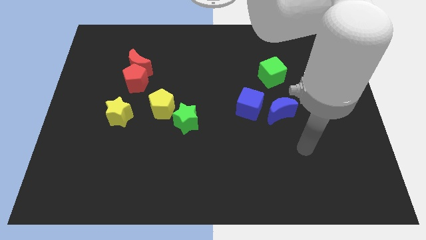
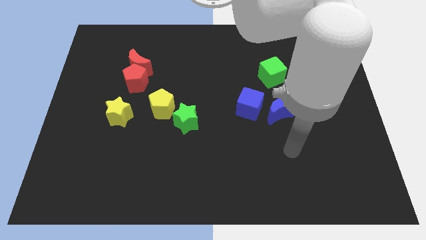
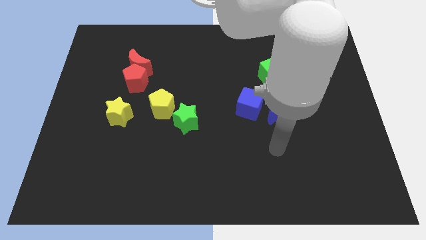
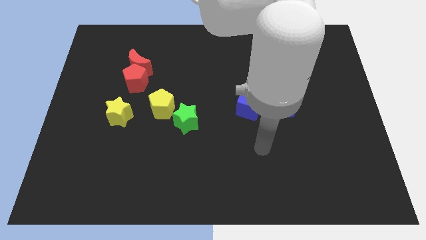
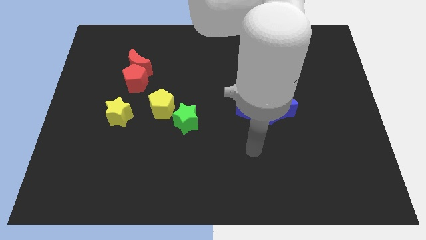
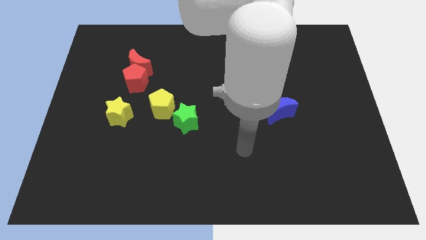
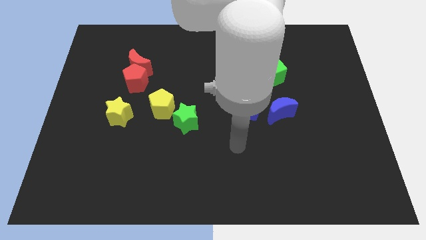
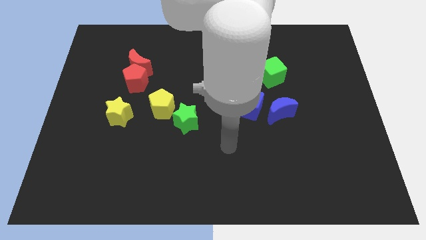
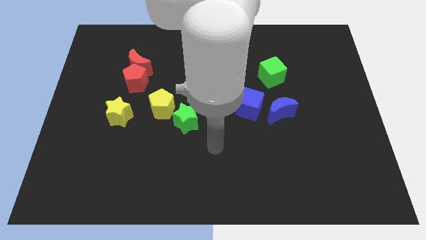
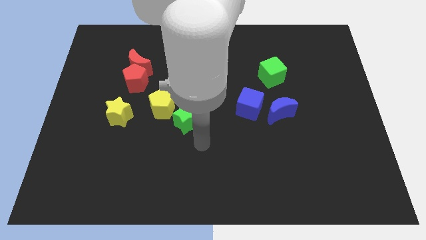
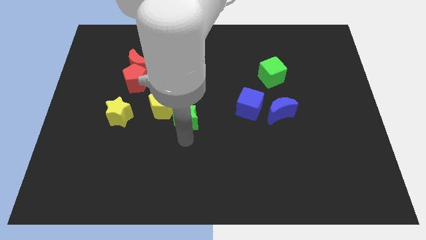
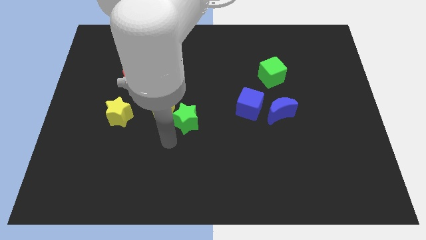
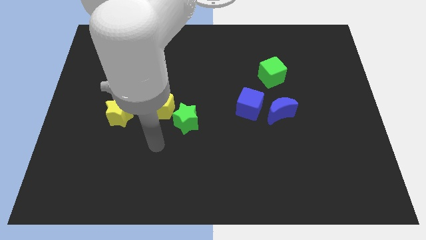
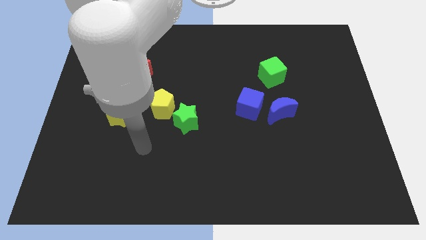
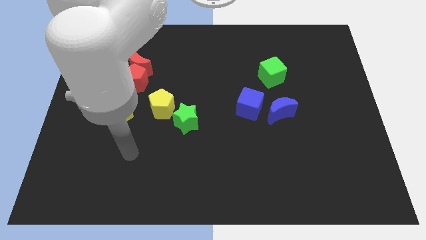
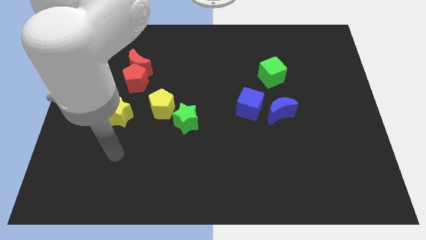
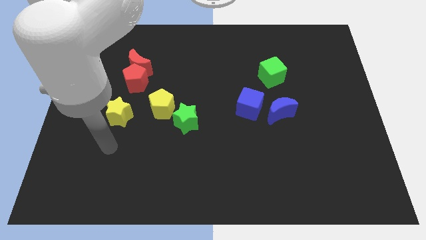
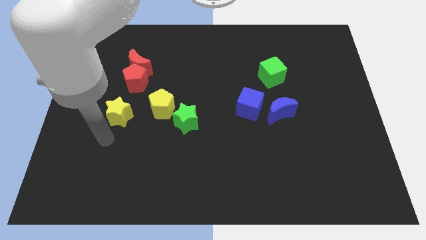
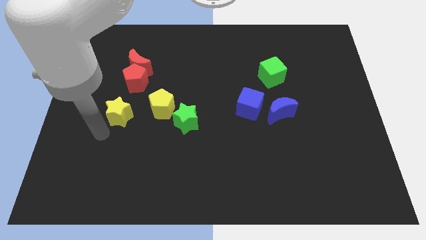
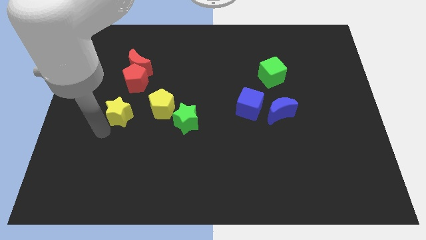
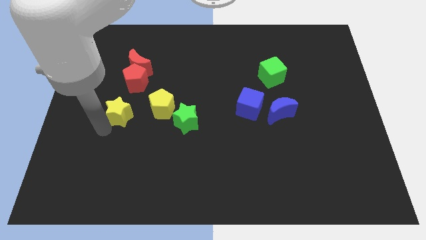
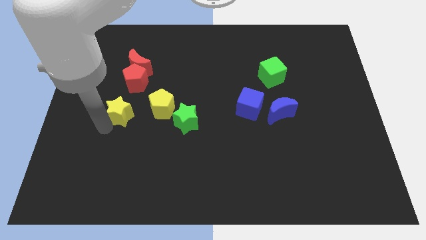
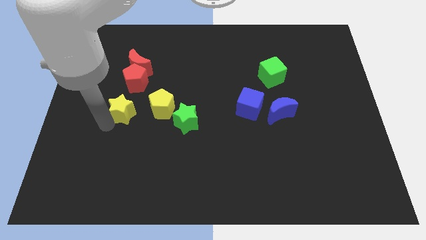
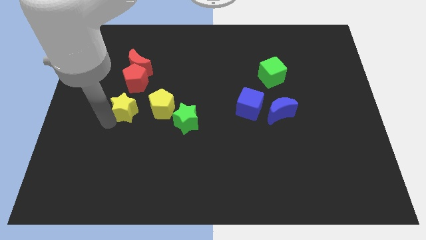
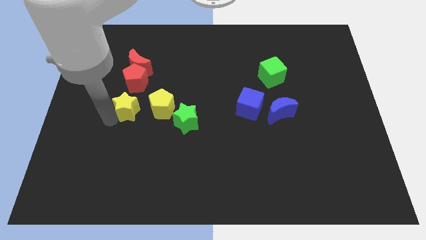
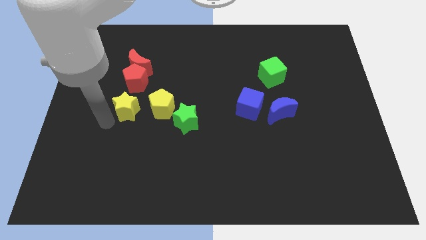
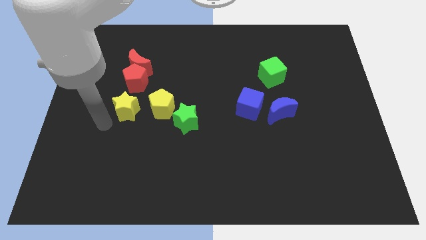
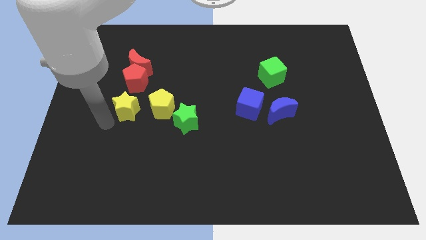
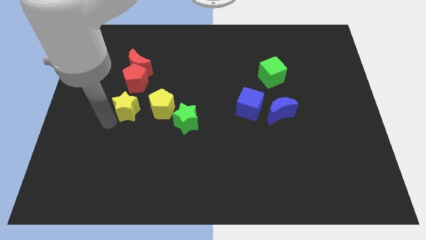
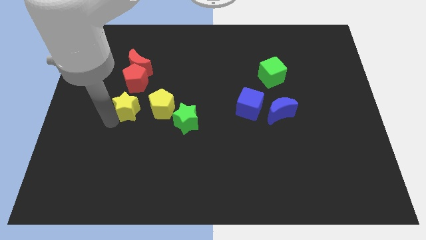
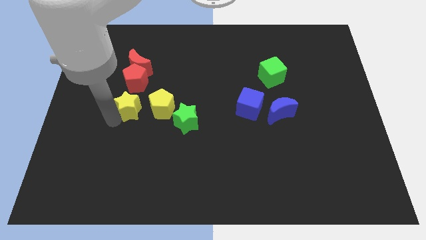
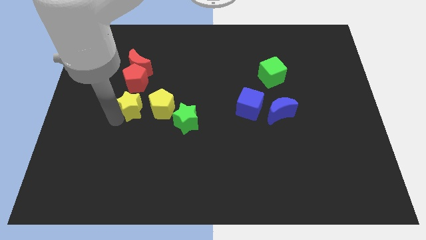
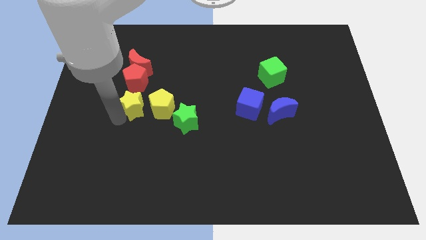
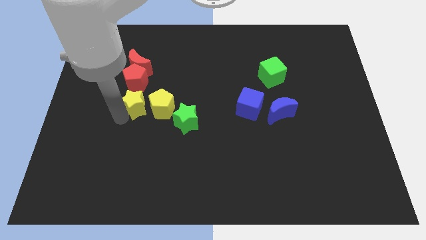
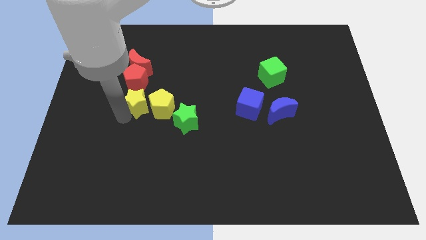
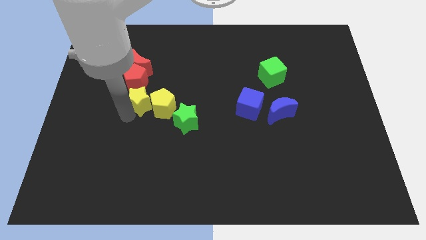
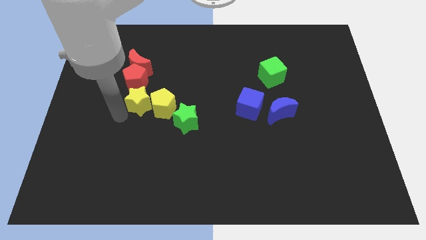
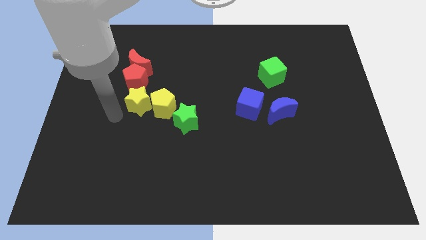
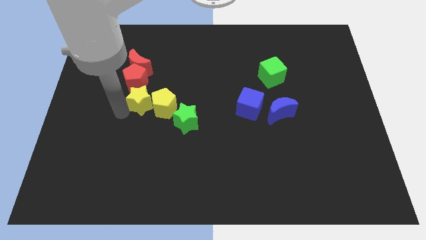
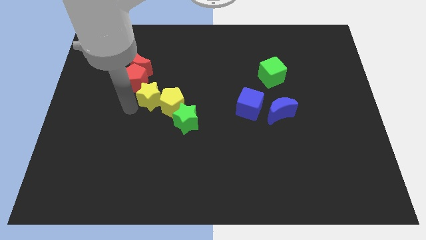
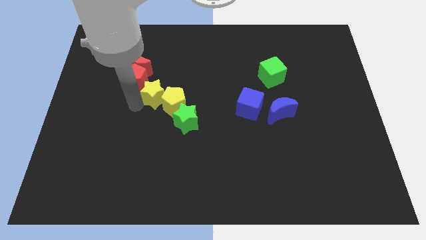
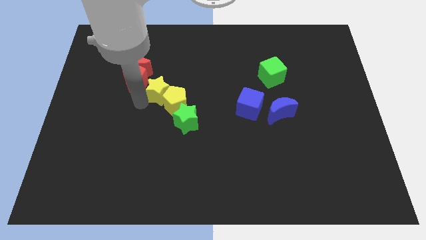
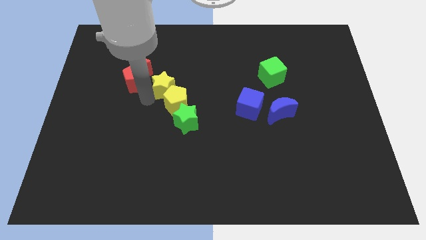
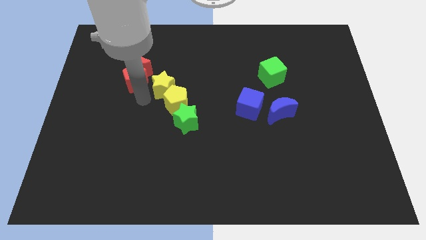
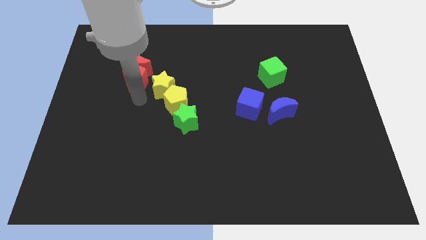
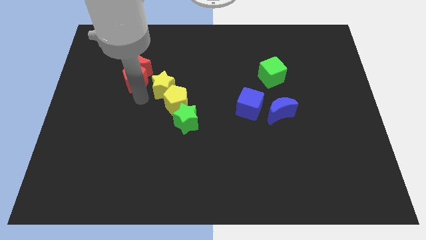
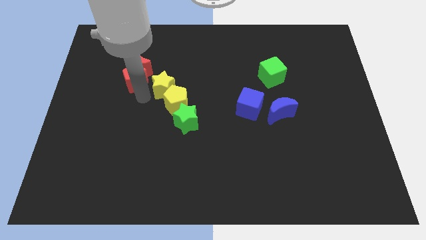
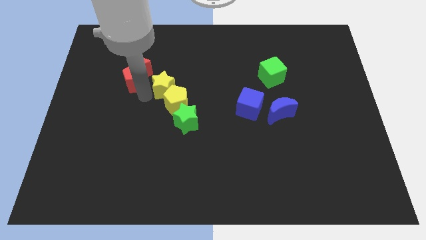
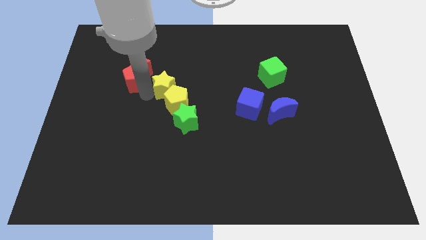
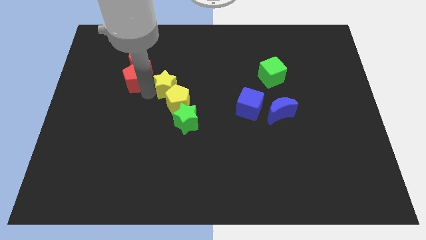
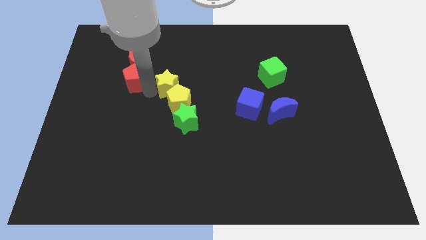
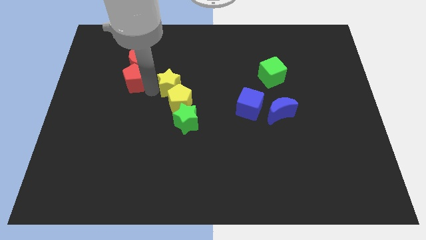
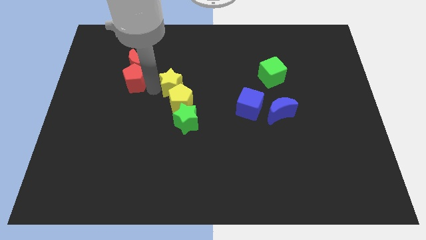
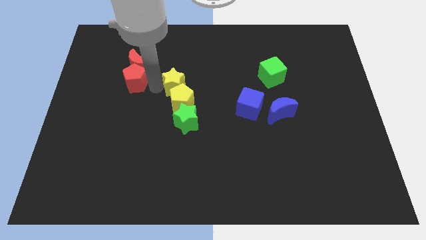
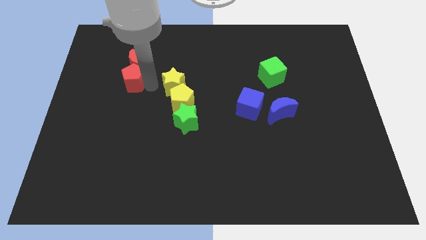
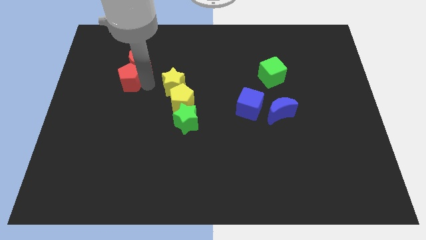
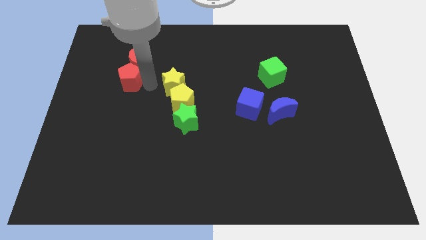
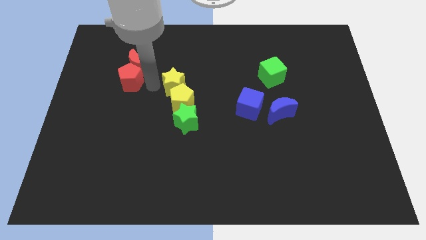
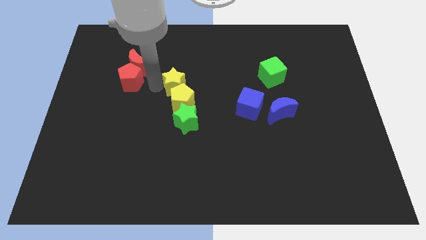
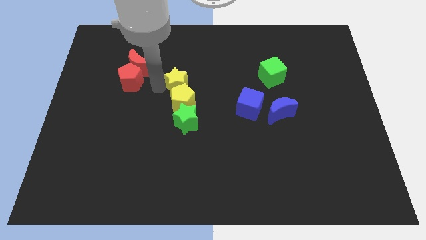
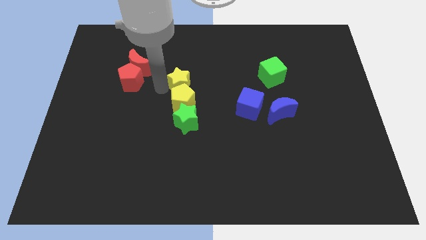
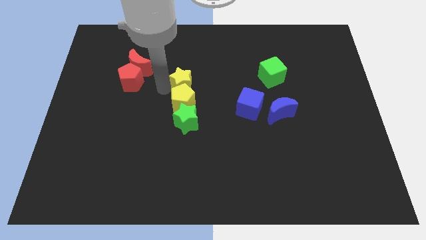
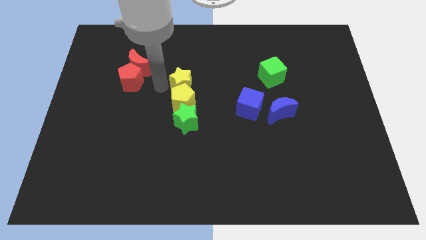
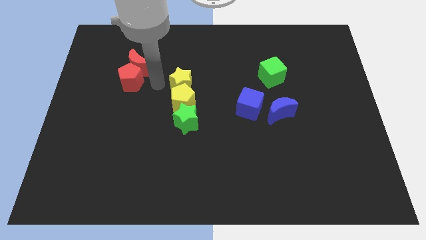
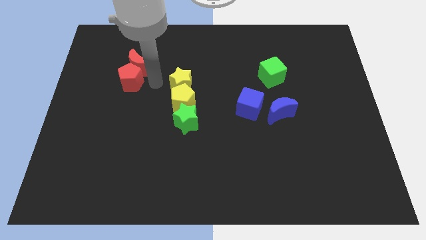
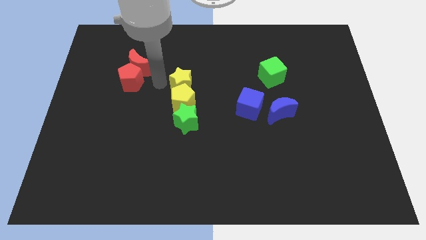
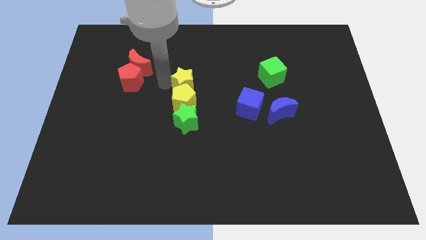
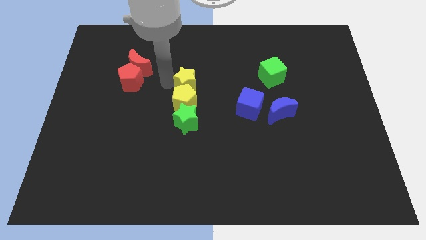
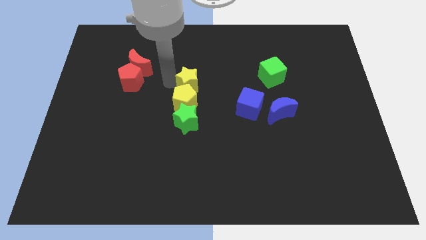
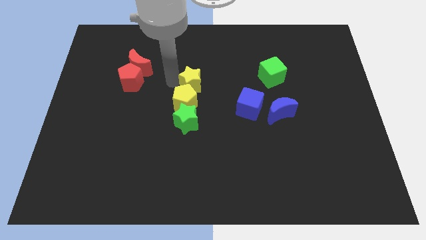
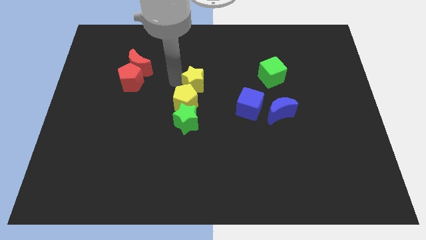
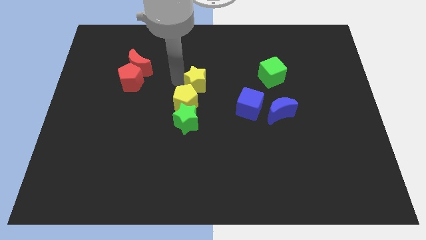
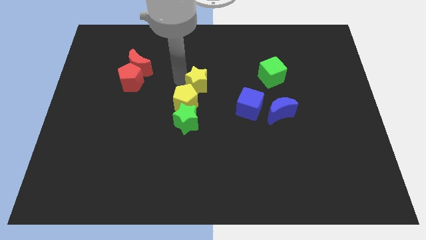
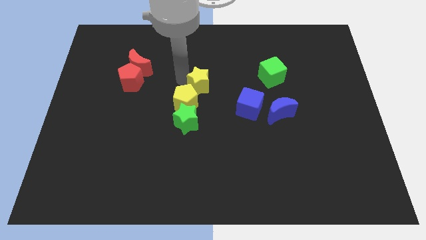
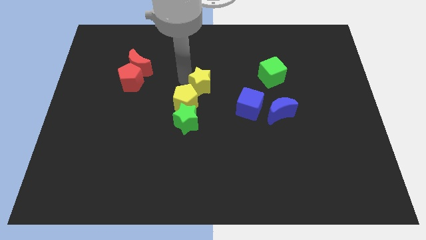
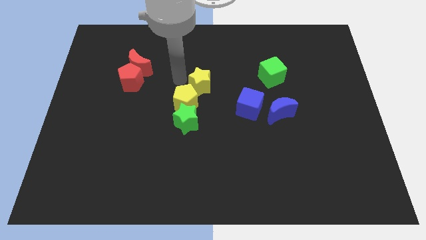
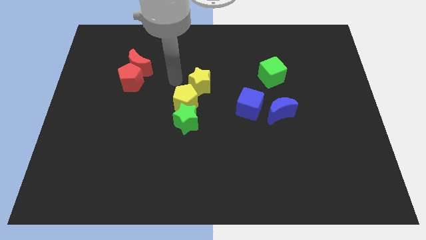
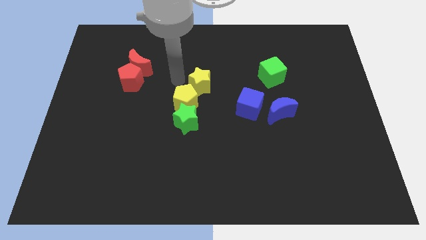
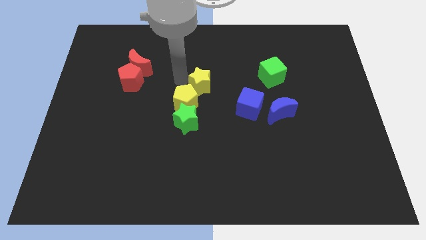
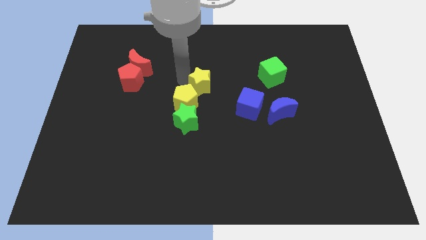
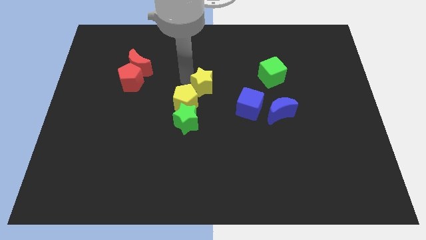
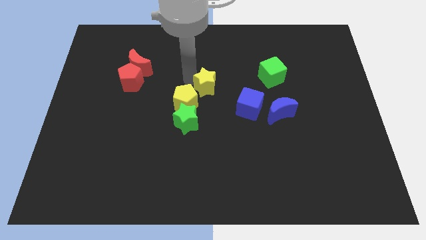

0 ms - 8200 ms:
push the yellow star to the top left side of the blue cube
